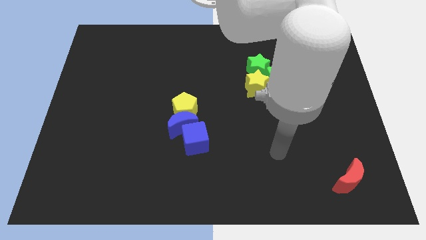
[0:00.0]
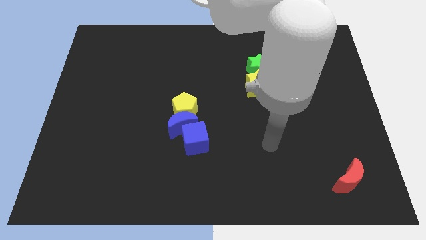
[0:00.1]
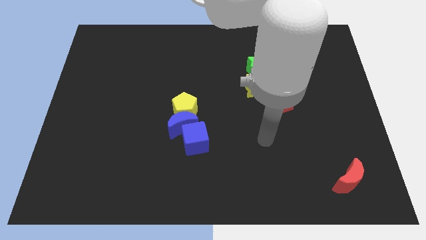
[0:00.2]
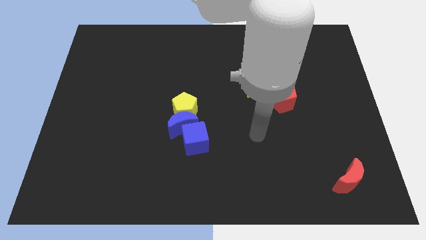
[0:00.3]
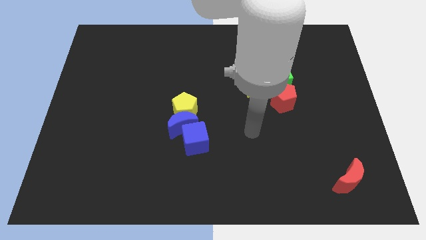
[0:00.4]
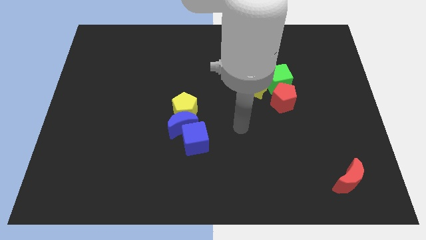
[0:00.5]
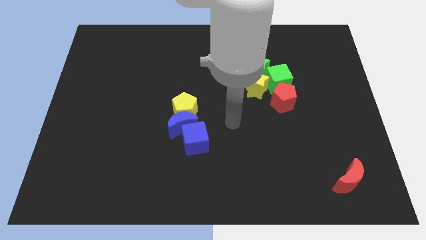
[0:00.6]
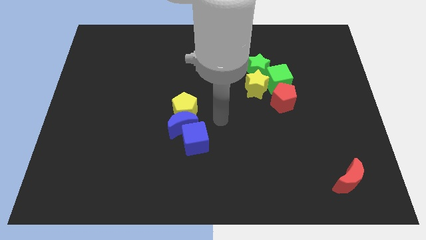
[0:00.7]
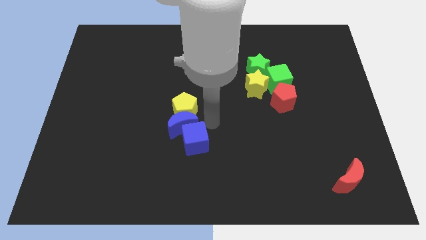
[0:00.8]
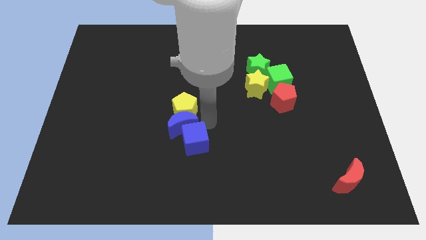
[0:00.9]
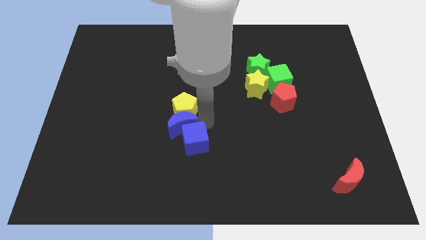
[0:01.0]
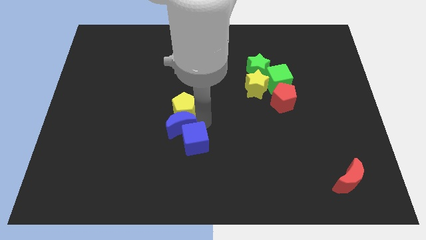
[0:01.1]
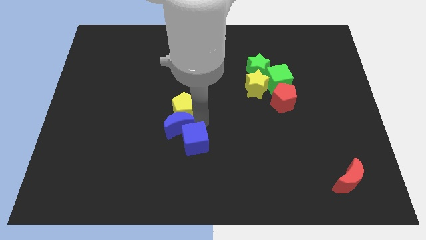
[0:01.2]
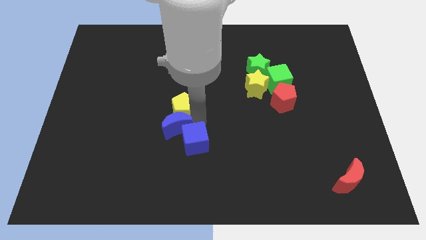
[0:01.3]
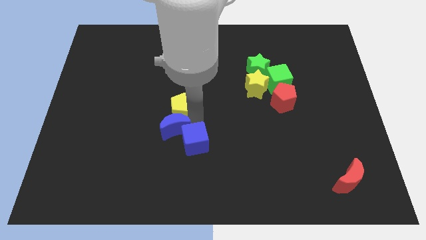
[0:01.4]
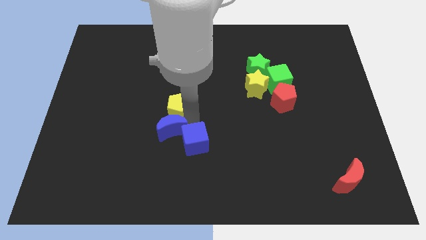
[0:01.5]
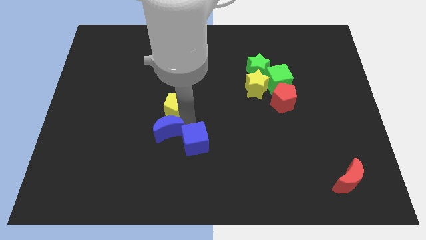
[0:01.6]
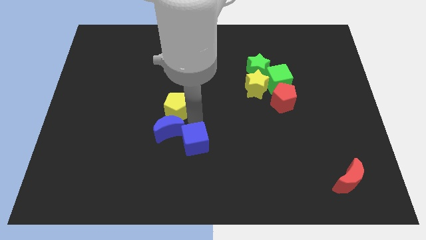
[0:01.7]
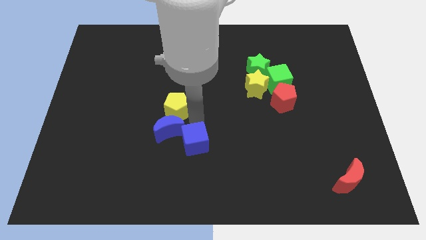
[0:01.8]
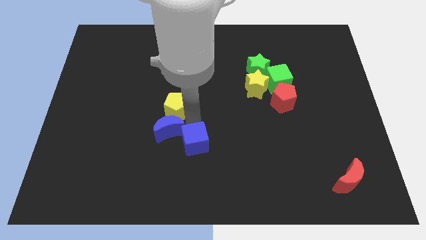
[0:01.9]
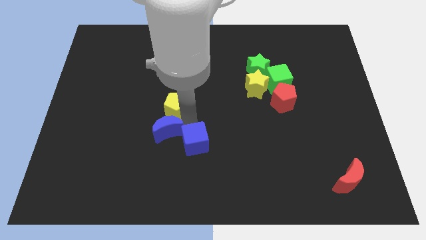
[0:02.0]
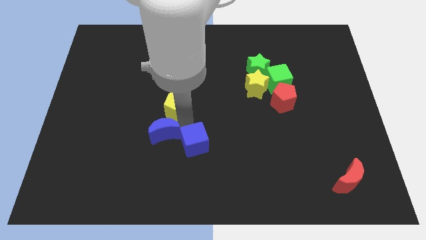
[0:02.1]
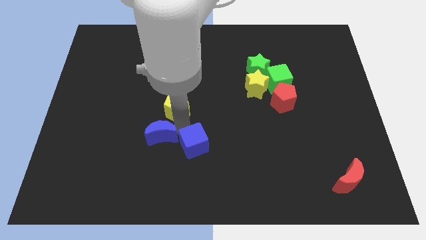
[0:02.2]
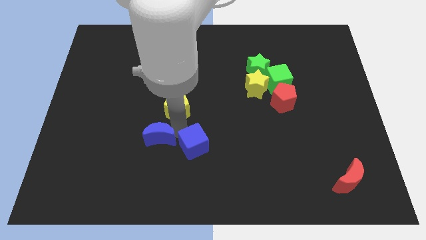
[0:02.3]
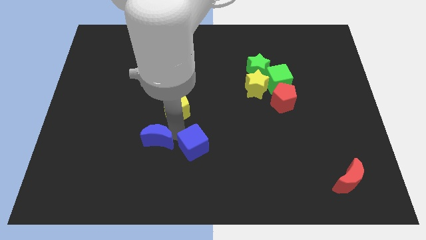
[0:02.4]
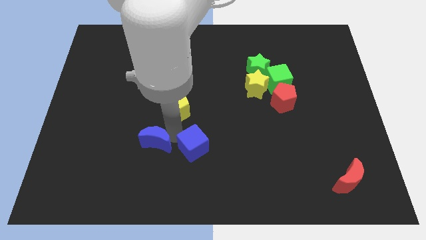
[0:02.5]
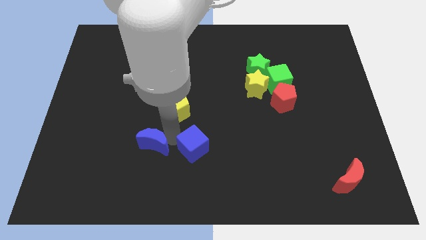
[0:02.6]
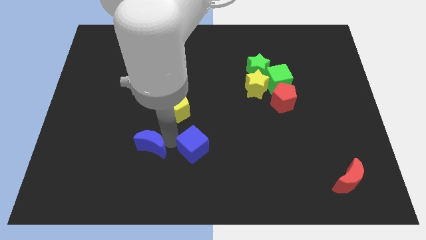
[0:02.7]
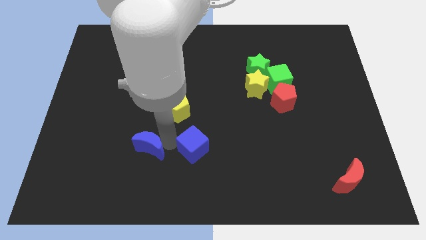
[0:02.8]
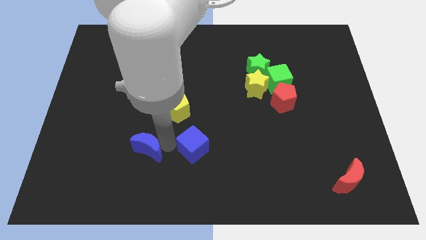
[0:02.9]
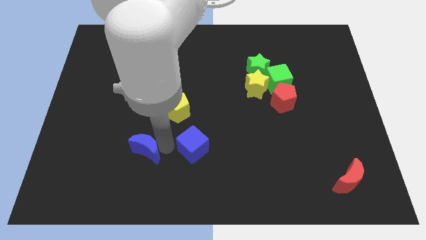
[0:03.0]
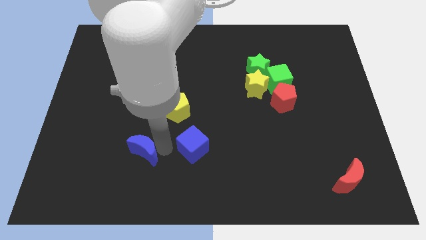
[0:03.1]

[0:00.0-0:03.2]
separate the blue moon from the yellow pentagon and blue cube

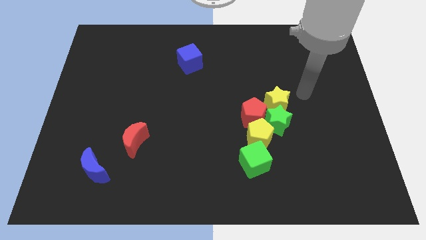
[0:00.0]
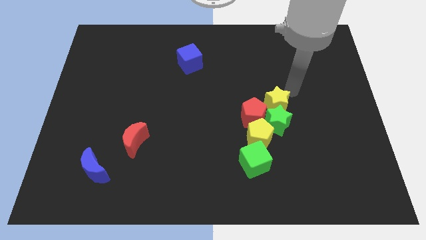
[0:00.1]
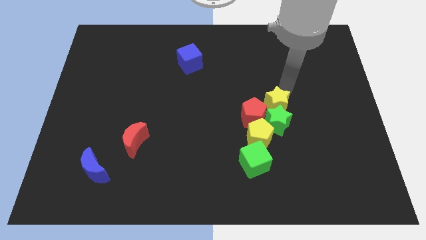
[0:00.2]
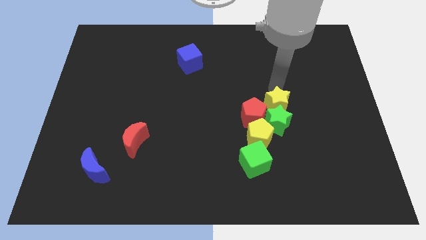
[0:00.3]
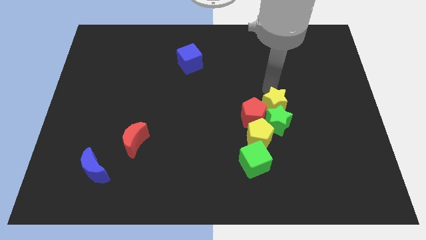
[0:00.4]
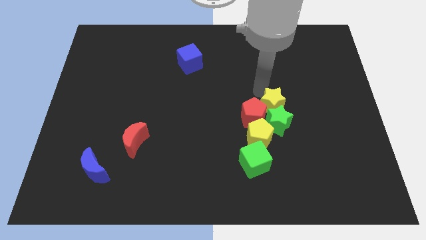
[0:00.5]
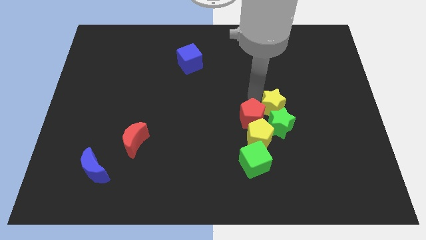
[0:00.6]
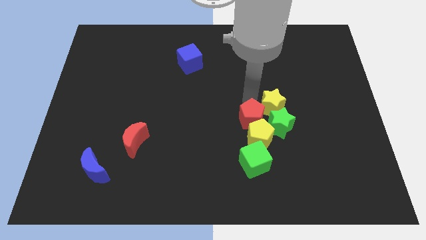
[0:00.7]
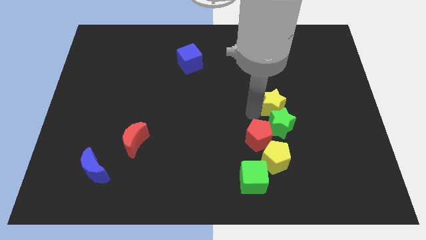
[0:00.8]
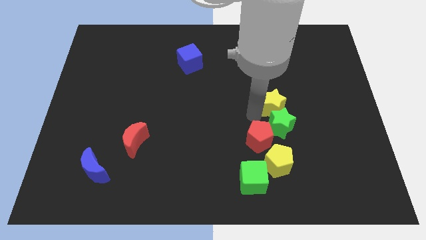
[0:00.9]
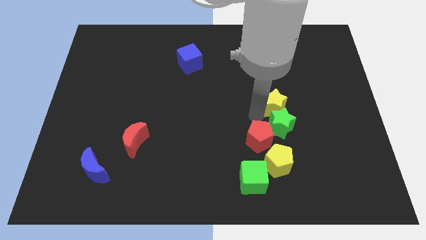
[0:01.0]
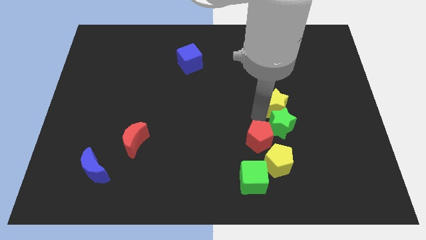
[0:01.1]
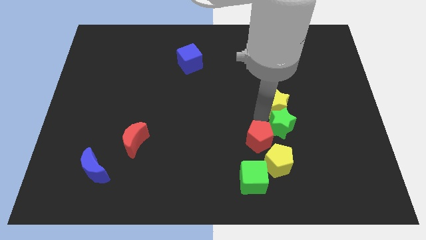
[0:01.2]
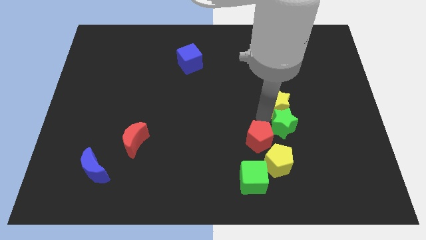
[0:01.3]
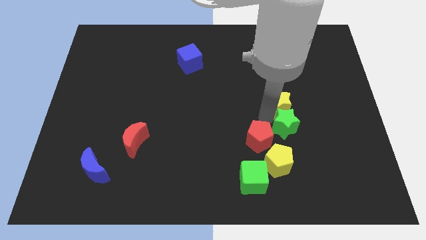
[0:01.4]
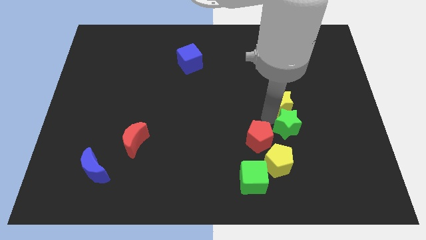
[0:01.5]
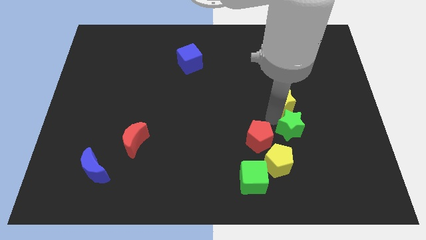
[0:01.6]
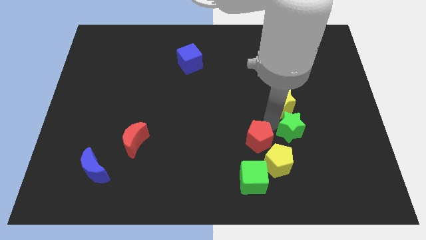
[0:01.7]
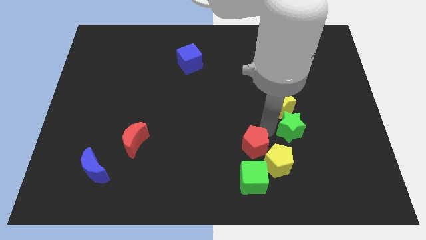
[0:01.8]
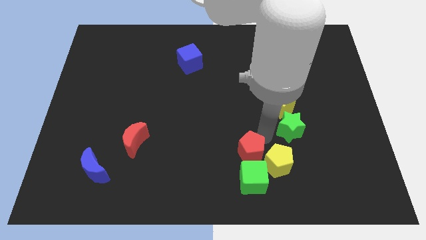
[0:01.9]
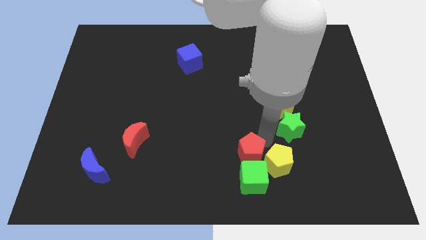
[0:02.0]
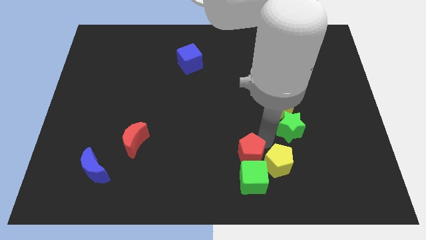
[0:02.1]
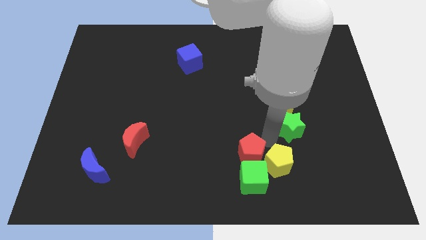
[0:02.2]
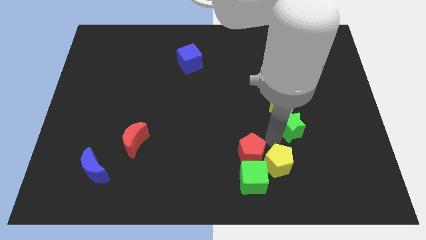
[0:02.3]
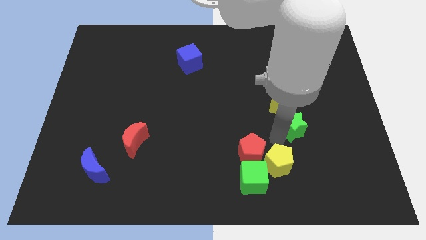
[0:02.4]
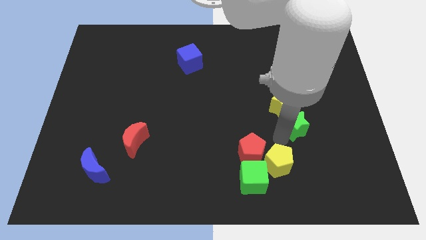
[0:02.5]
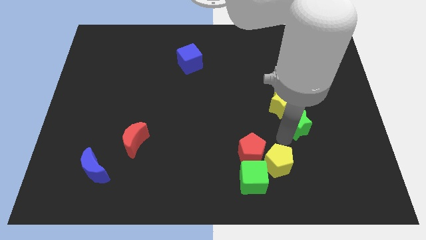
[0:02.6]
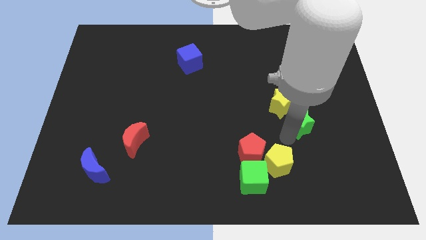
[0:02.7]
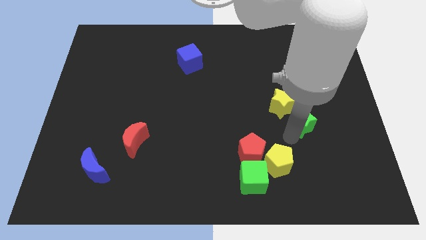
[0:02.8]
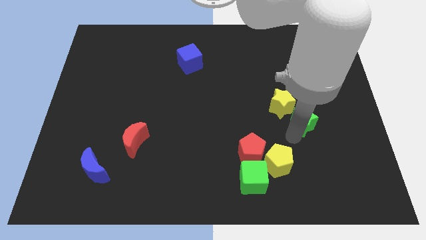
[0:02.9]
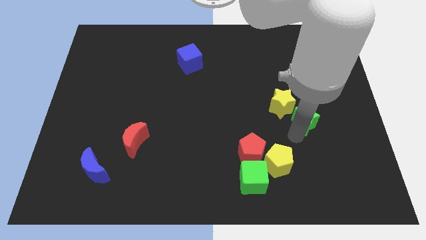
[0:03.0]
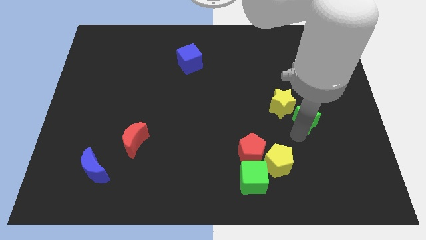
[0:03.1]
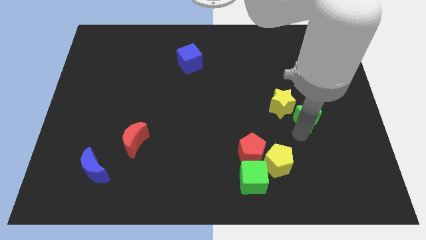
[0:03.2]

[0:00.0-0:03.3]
pull the green star apart from the group

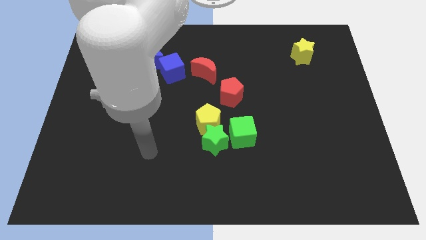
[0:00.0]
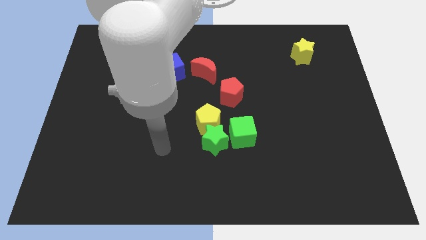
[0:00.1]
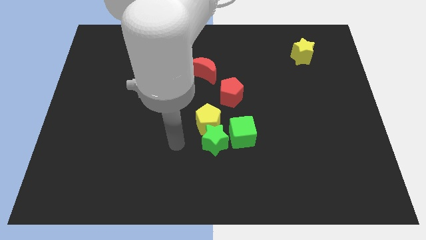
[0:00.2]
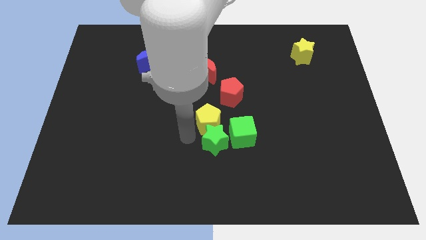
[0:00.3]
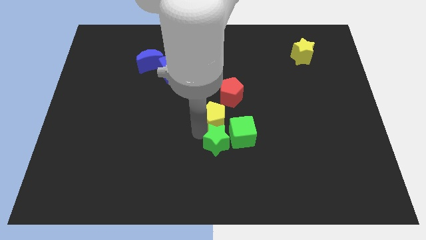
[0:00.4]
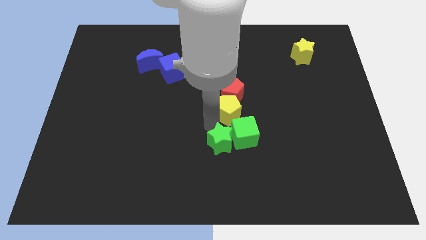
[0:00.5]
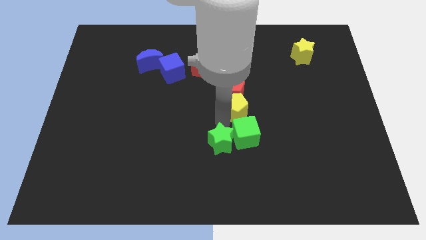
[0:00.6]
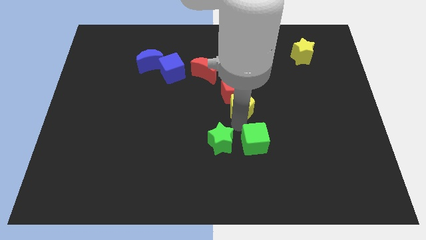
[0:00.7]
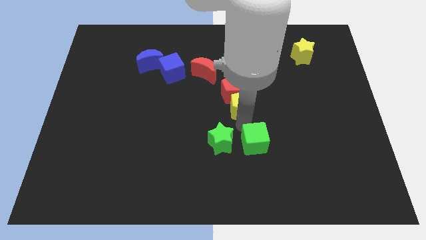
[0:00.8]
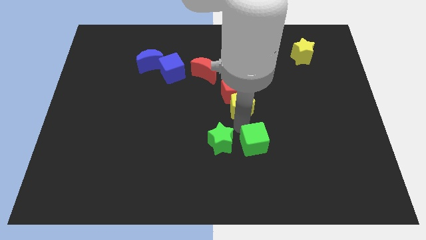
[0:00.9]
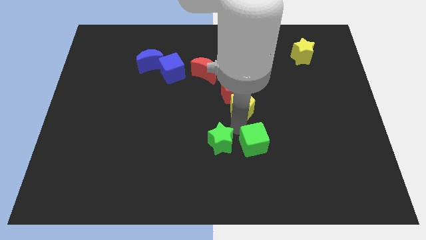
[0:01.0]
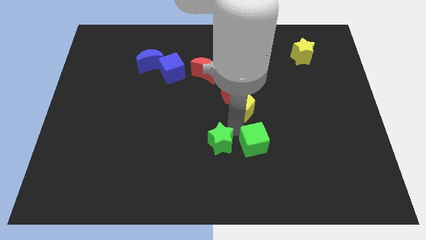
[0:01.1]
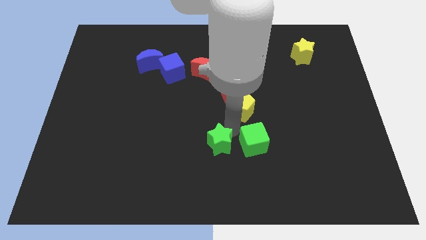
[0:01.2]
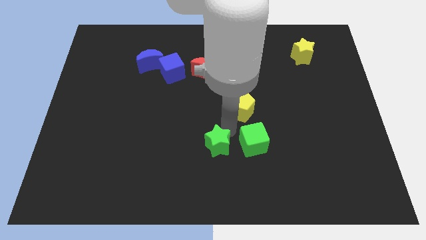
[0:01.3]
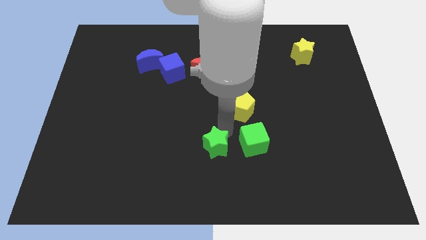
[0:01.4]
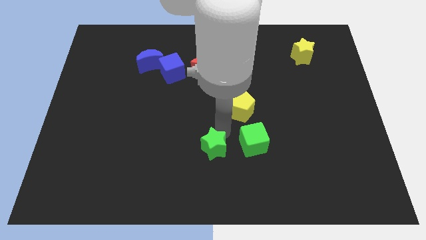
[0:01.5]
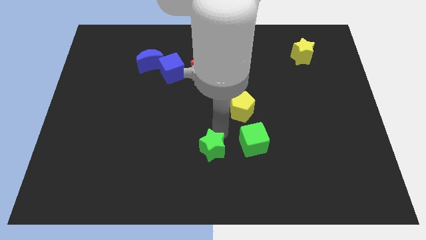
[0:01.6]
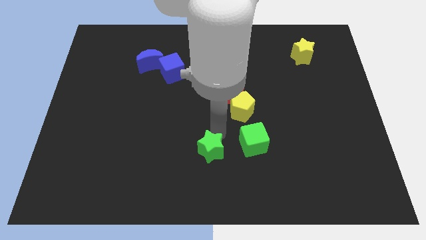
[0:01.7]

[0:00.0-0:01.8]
move the green star away from the yellow pentagon and green cube

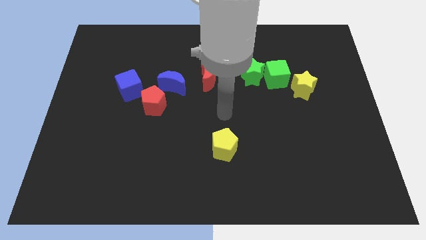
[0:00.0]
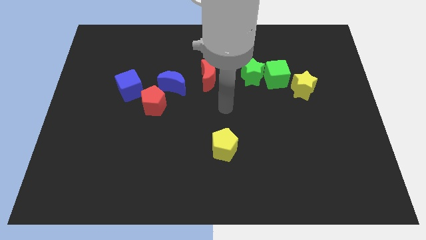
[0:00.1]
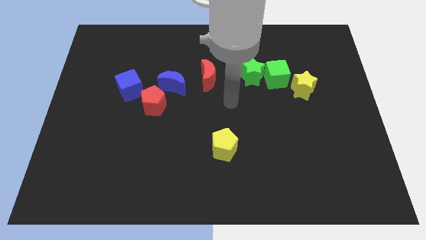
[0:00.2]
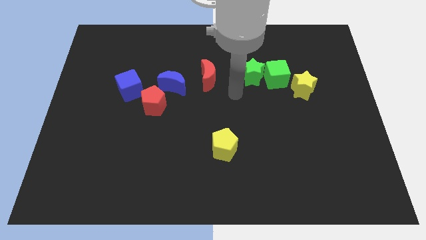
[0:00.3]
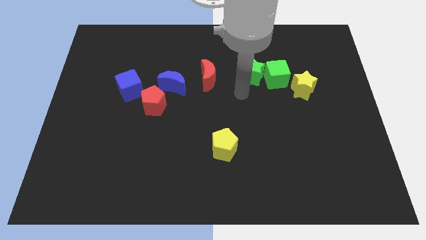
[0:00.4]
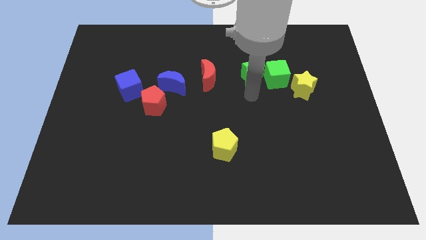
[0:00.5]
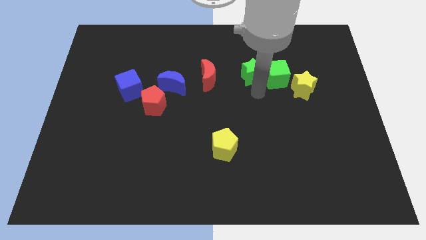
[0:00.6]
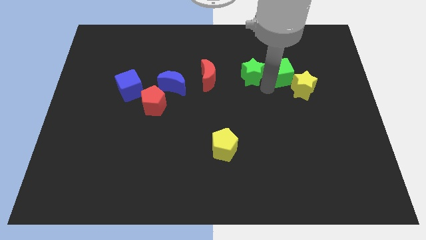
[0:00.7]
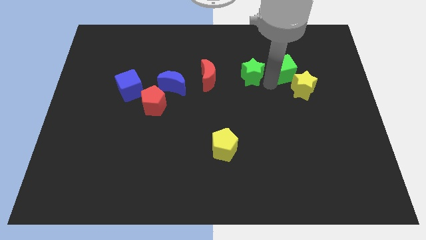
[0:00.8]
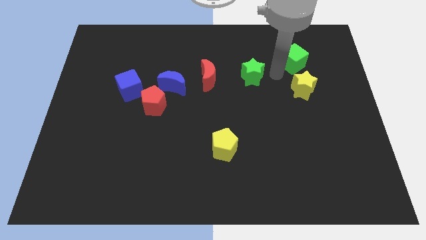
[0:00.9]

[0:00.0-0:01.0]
separate the green star from the green cube

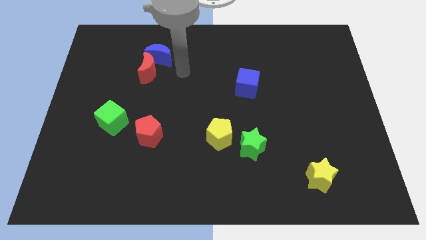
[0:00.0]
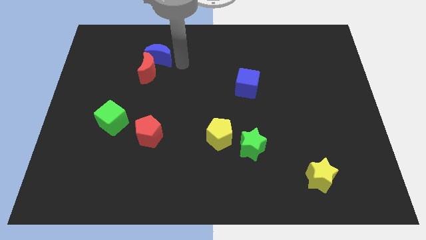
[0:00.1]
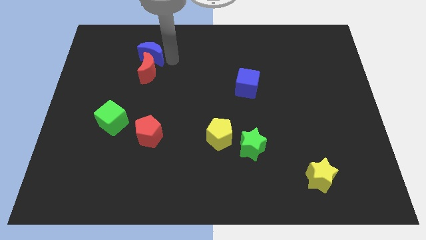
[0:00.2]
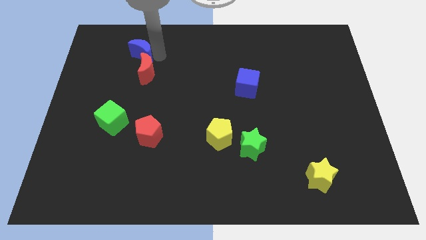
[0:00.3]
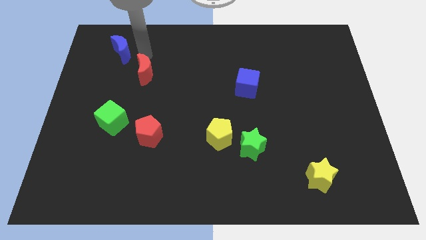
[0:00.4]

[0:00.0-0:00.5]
pull the red moon apart from the blue moon
